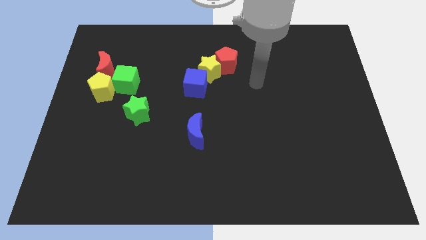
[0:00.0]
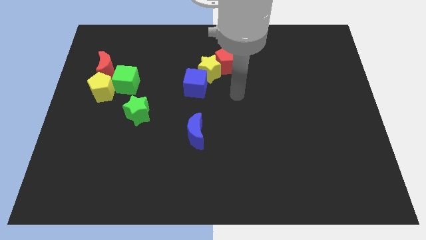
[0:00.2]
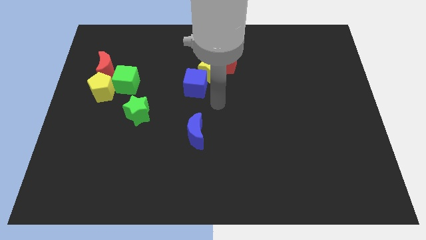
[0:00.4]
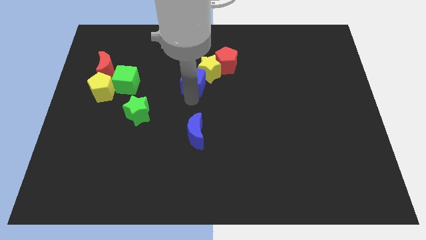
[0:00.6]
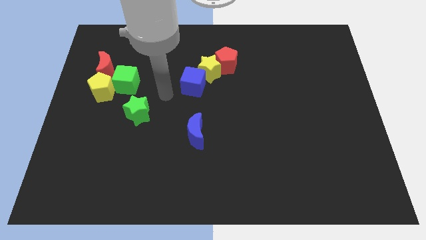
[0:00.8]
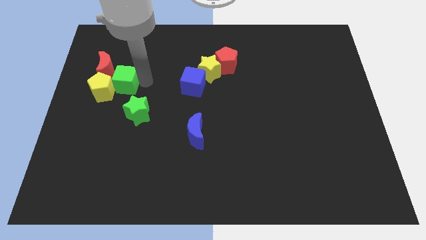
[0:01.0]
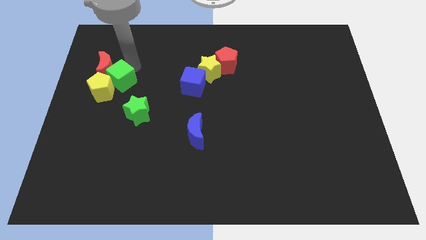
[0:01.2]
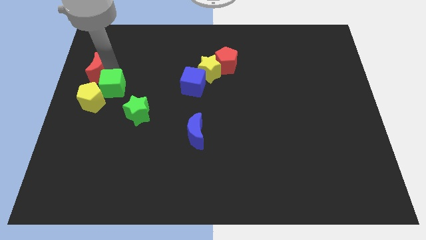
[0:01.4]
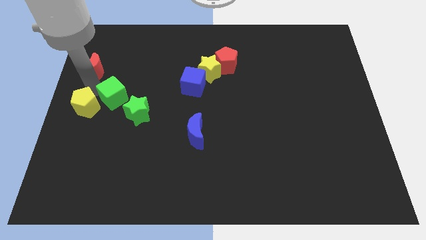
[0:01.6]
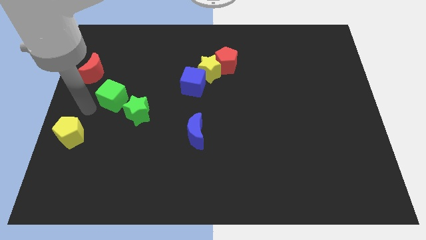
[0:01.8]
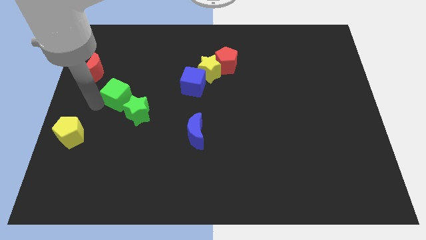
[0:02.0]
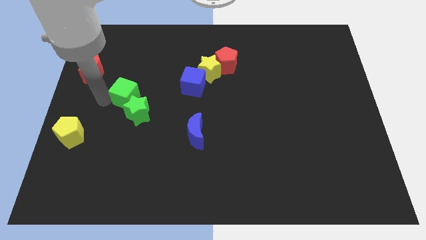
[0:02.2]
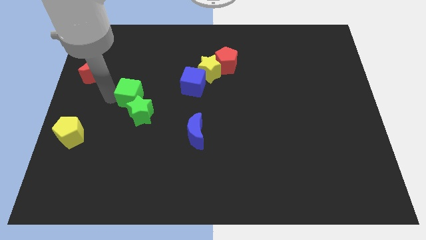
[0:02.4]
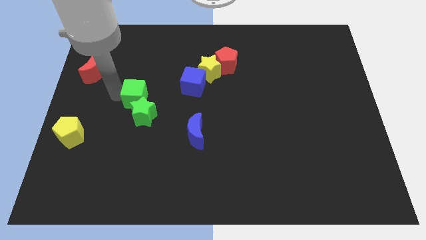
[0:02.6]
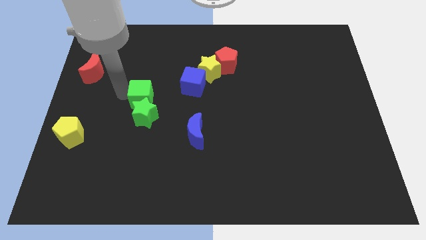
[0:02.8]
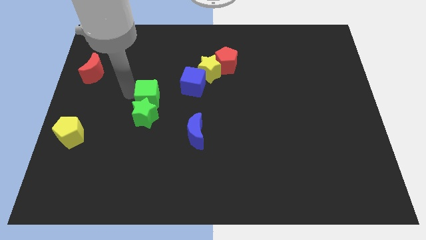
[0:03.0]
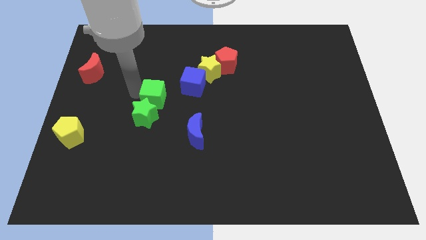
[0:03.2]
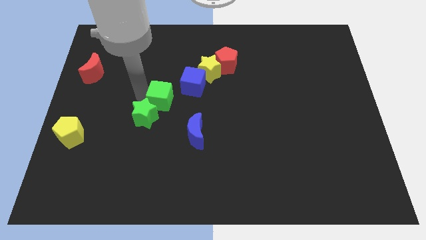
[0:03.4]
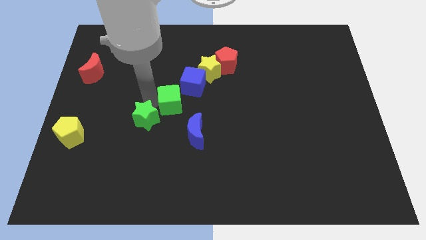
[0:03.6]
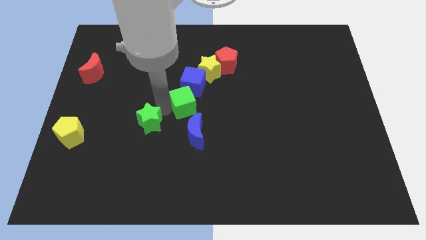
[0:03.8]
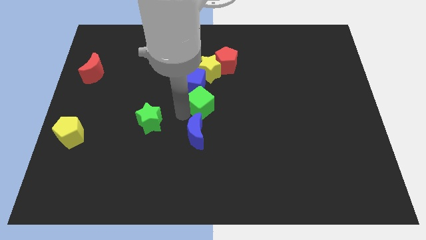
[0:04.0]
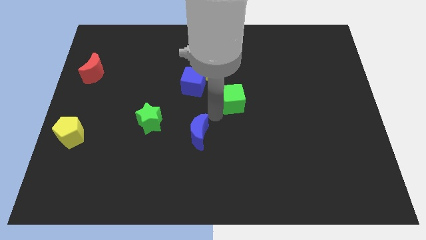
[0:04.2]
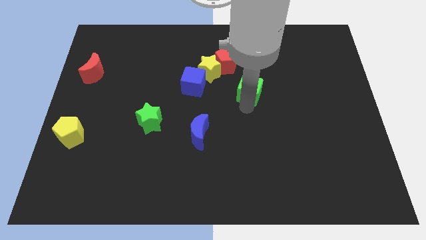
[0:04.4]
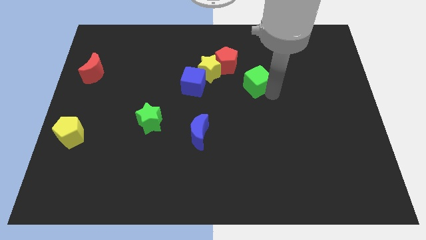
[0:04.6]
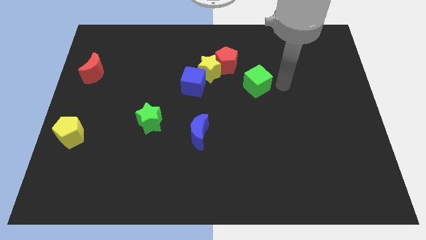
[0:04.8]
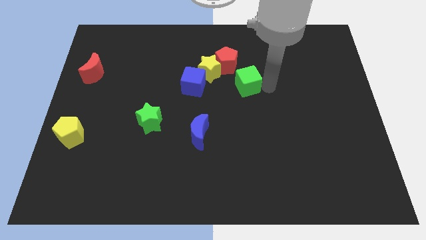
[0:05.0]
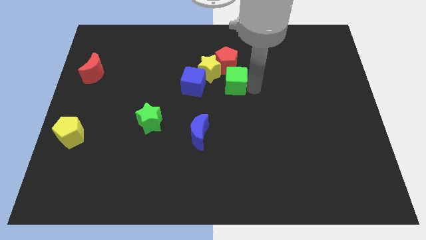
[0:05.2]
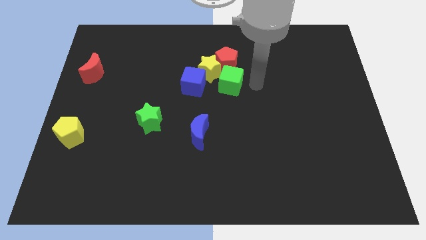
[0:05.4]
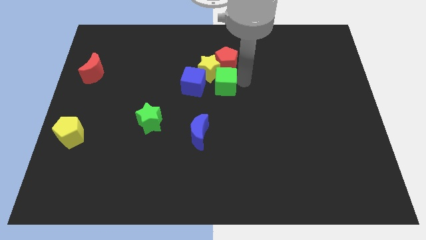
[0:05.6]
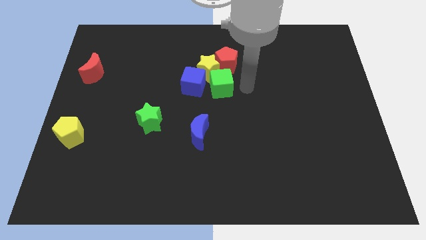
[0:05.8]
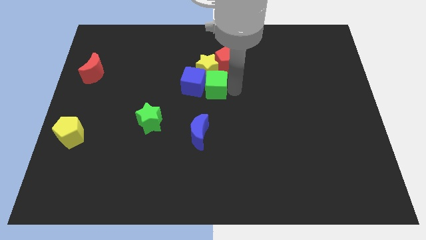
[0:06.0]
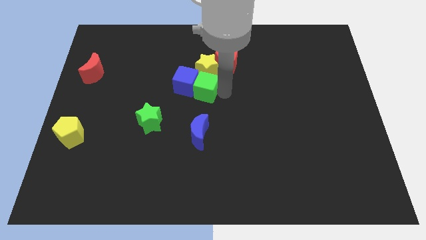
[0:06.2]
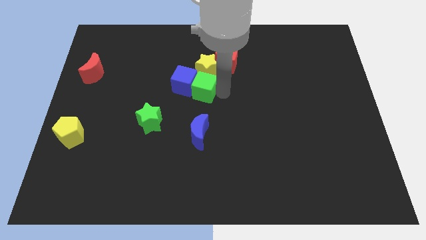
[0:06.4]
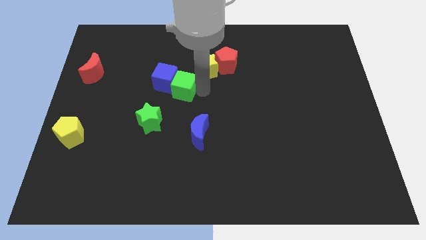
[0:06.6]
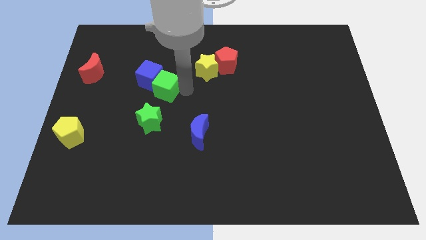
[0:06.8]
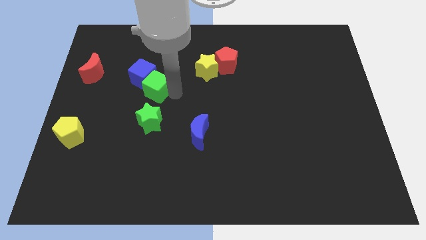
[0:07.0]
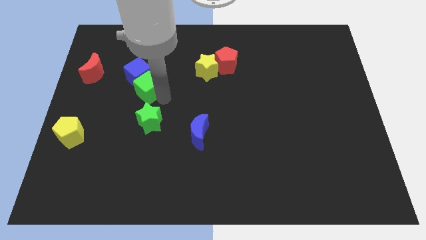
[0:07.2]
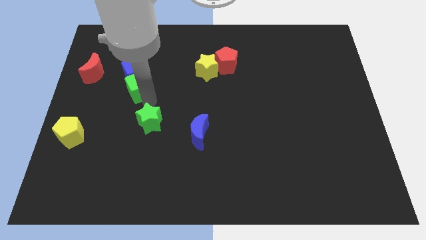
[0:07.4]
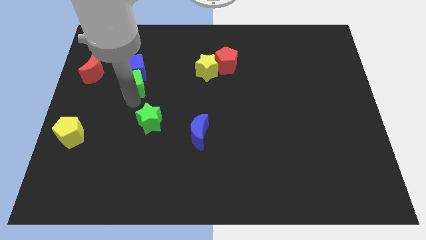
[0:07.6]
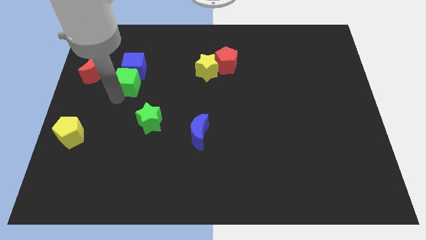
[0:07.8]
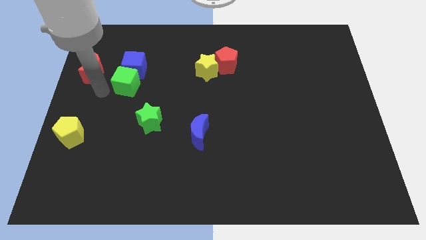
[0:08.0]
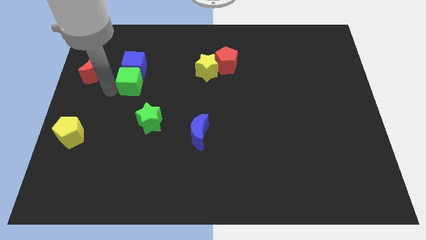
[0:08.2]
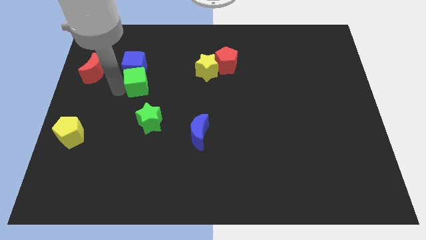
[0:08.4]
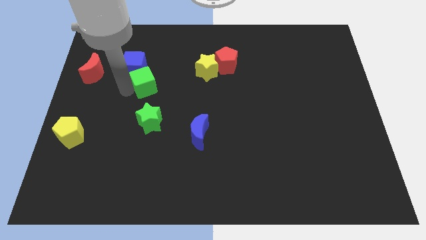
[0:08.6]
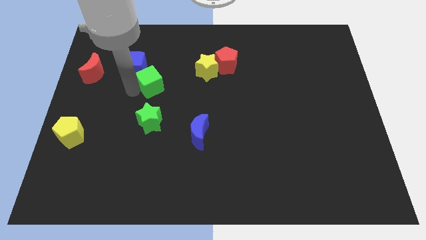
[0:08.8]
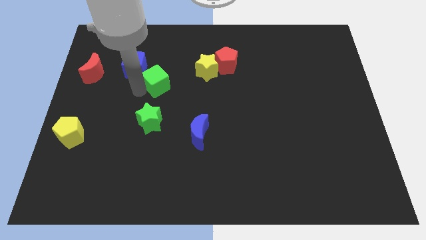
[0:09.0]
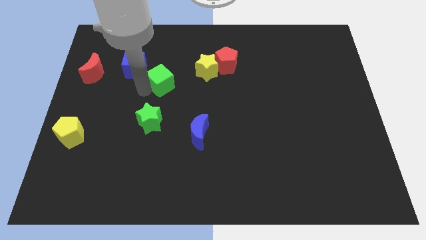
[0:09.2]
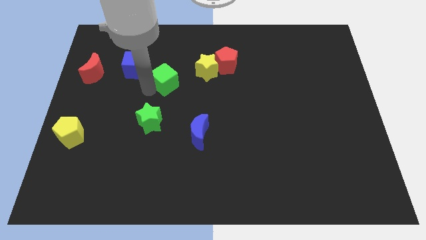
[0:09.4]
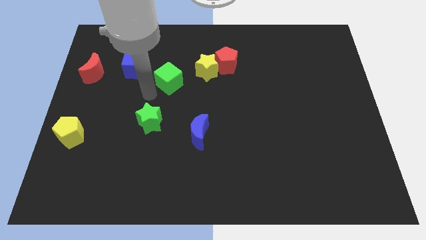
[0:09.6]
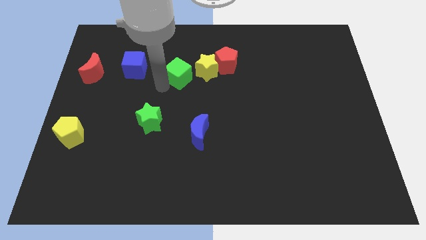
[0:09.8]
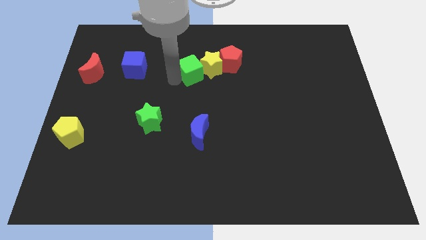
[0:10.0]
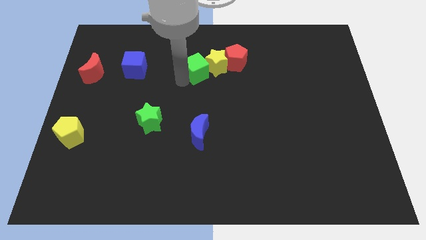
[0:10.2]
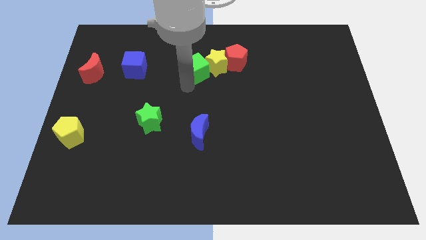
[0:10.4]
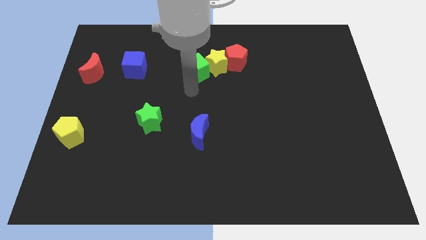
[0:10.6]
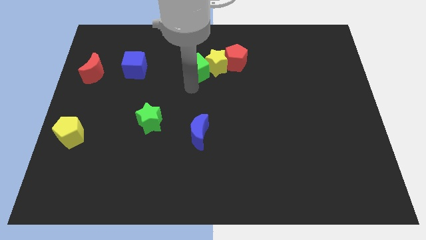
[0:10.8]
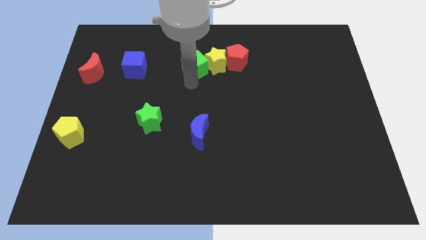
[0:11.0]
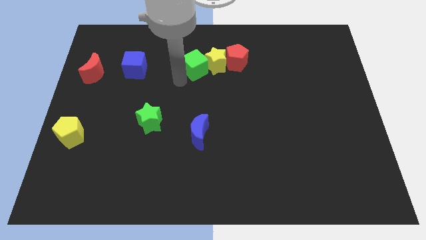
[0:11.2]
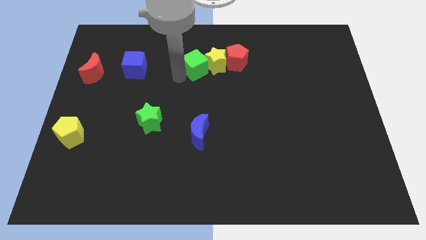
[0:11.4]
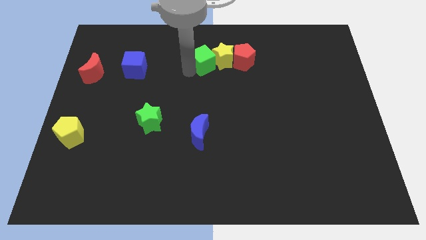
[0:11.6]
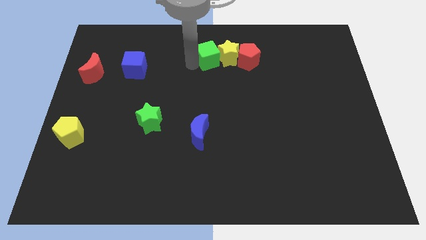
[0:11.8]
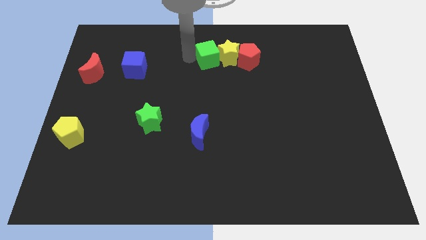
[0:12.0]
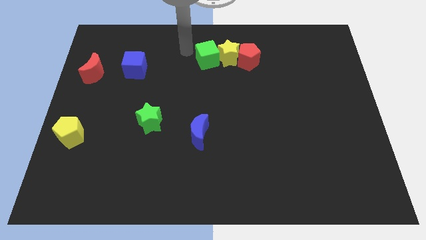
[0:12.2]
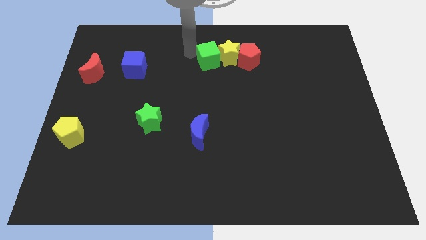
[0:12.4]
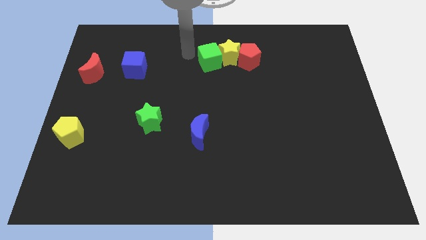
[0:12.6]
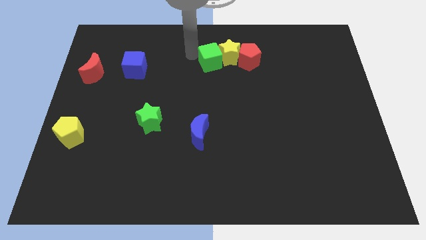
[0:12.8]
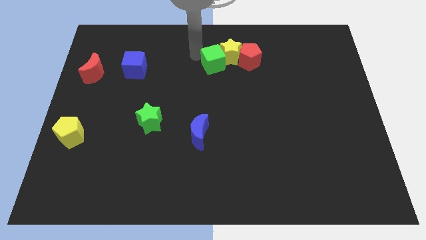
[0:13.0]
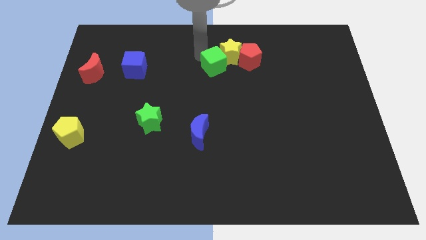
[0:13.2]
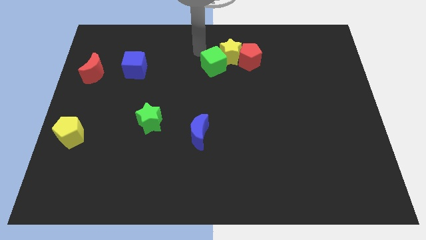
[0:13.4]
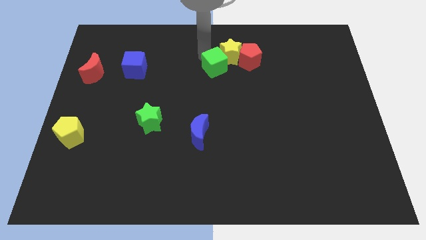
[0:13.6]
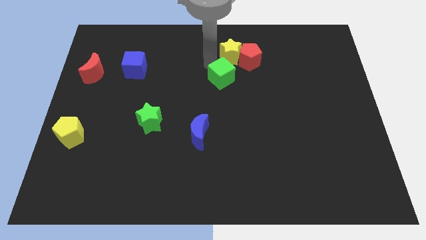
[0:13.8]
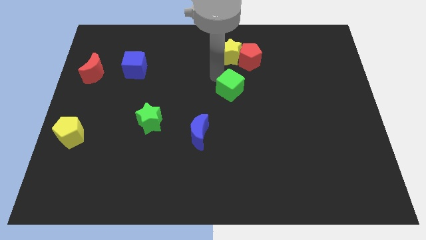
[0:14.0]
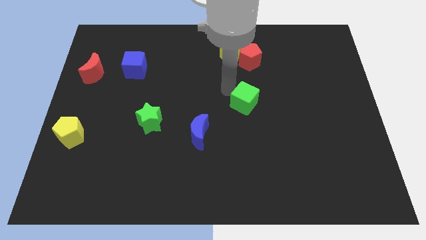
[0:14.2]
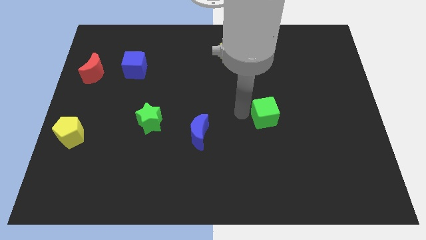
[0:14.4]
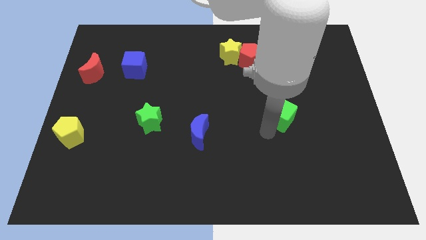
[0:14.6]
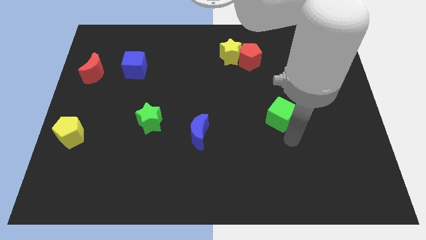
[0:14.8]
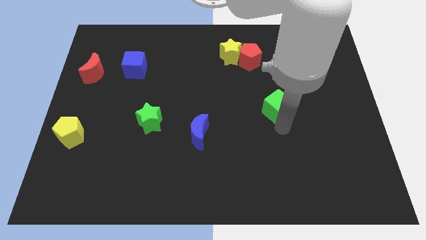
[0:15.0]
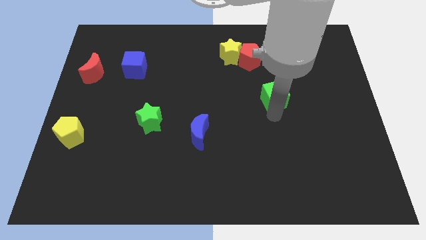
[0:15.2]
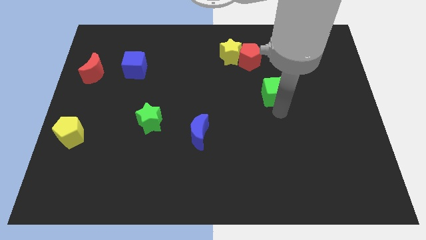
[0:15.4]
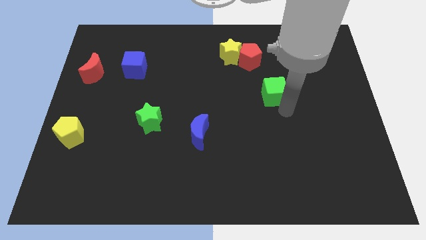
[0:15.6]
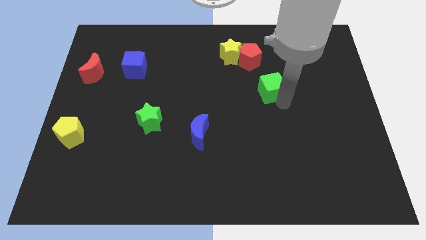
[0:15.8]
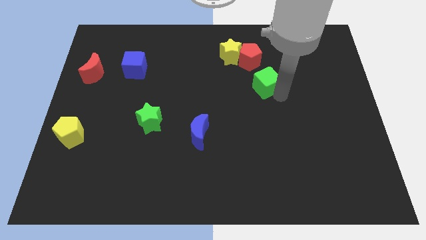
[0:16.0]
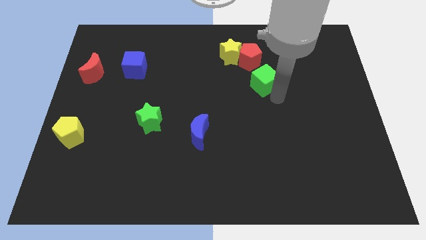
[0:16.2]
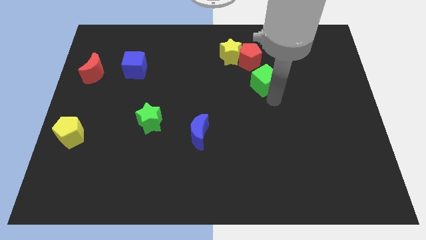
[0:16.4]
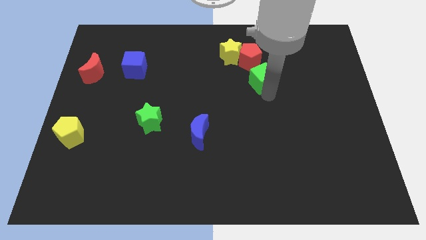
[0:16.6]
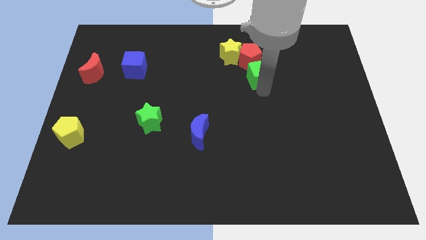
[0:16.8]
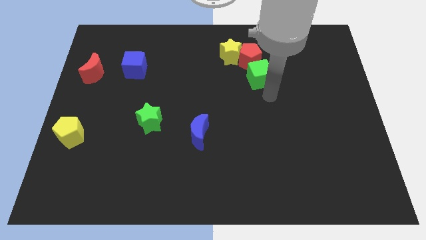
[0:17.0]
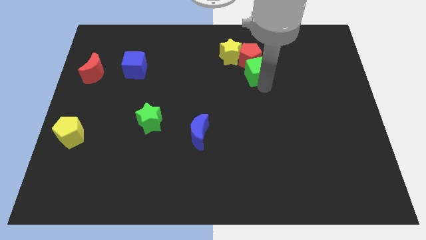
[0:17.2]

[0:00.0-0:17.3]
push the green cube towards the red pentagon
